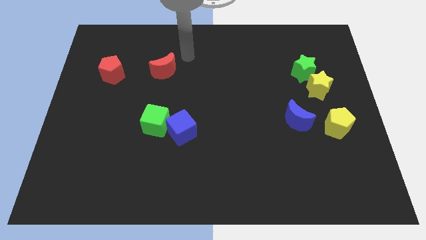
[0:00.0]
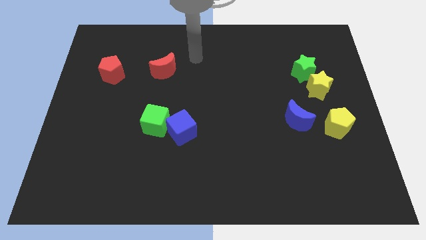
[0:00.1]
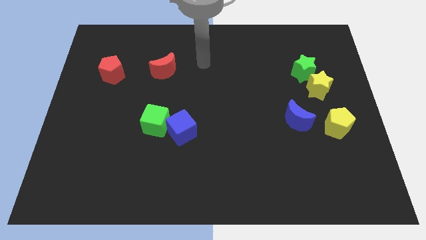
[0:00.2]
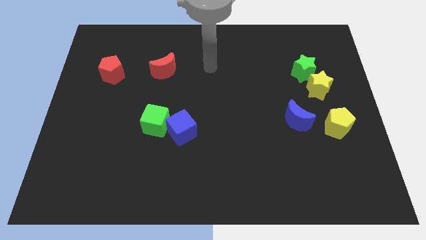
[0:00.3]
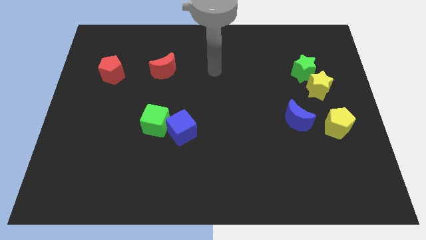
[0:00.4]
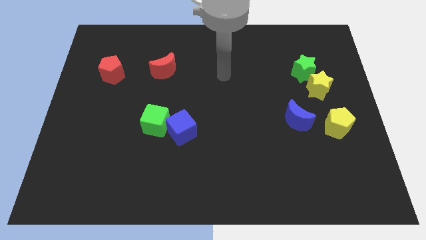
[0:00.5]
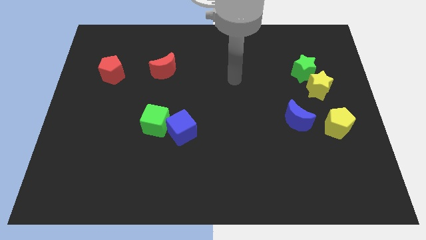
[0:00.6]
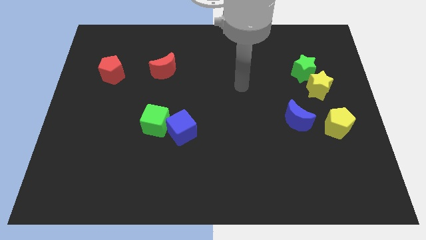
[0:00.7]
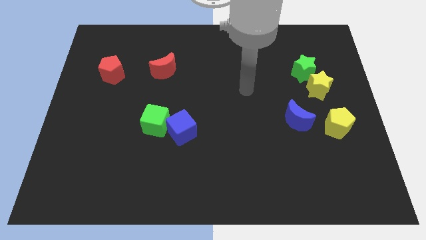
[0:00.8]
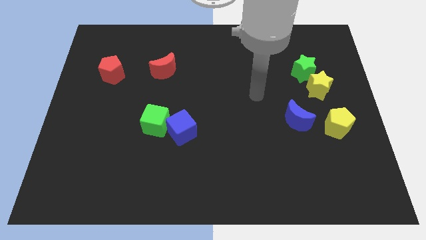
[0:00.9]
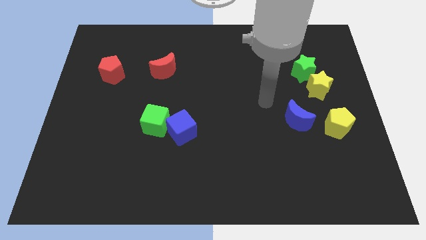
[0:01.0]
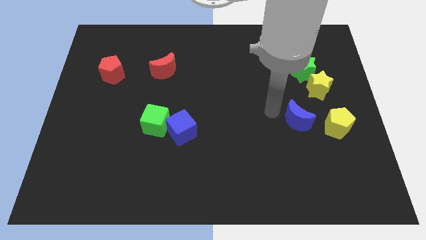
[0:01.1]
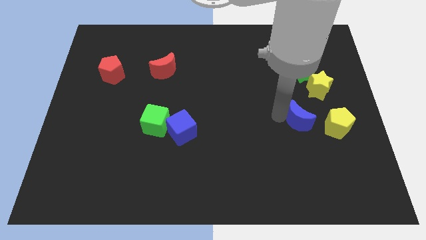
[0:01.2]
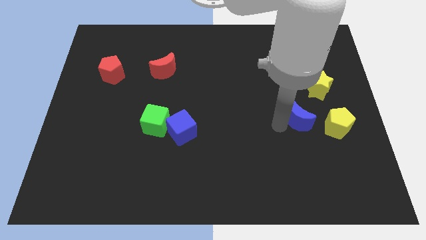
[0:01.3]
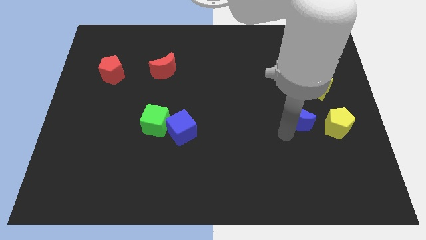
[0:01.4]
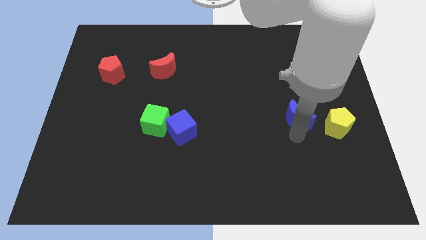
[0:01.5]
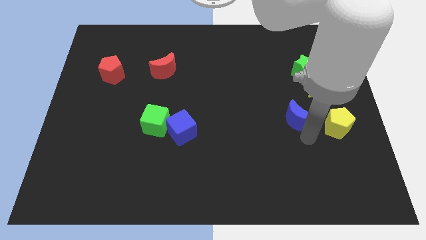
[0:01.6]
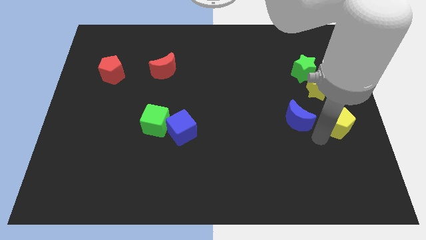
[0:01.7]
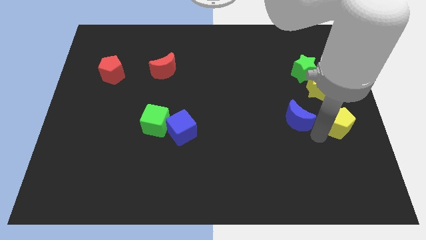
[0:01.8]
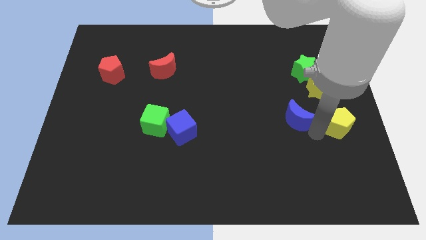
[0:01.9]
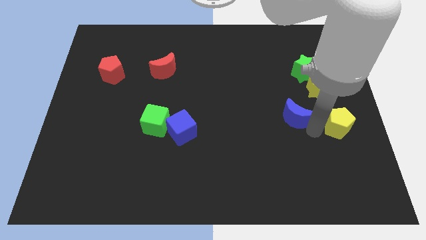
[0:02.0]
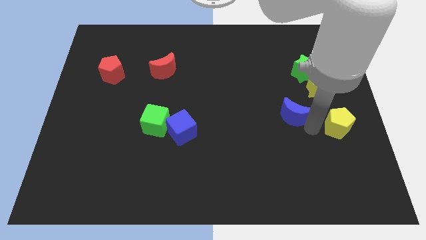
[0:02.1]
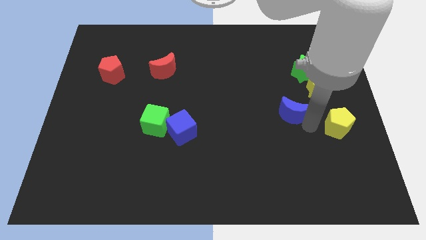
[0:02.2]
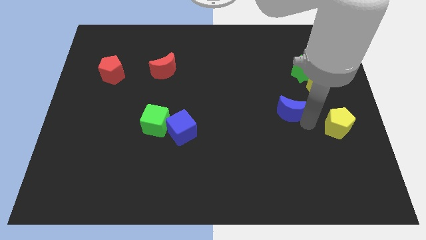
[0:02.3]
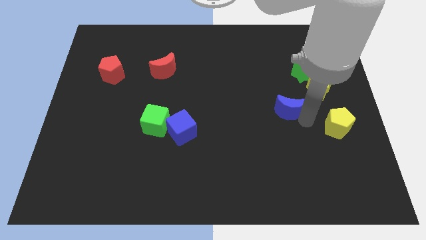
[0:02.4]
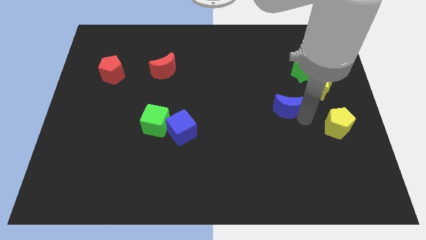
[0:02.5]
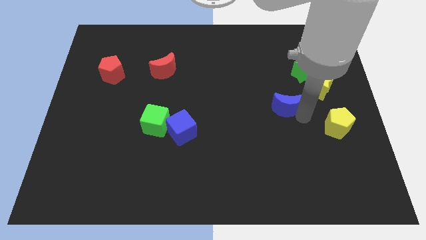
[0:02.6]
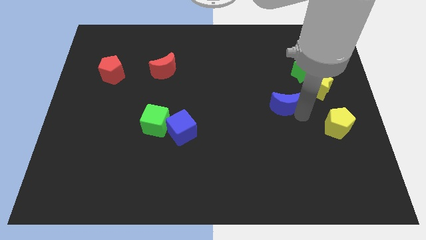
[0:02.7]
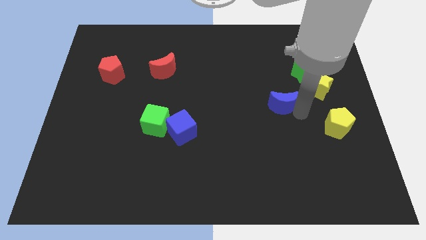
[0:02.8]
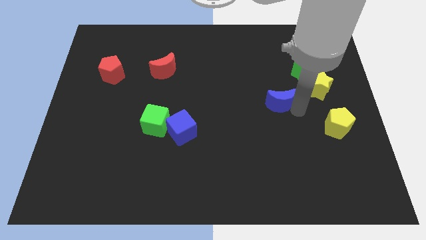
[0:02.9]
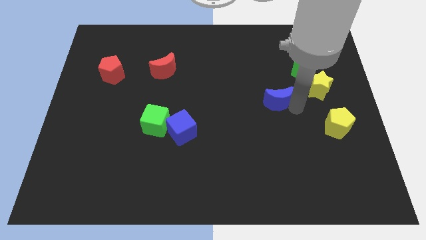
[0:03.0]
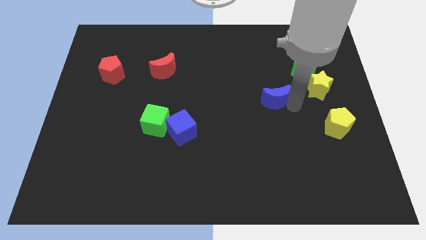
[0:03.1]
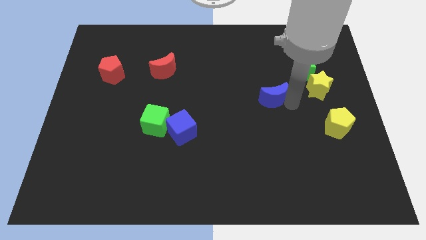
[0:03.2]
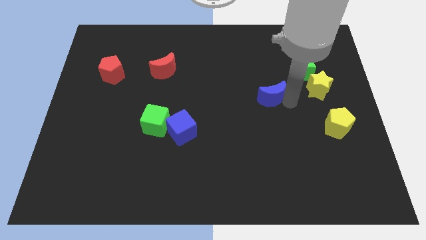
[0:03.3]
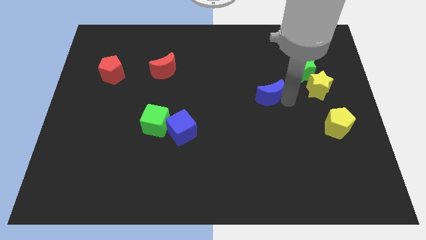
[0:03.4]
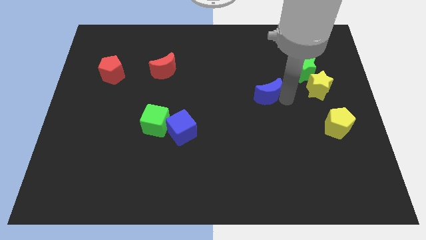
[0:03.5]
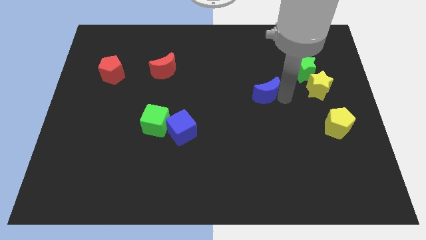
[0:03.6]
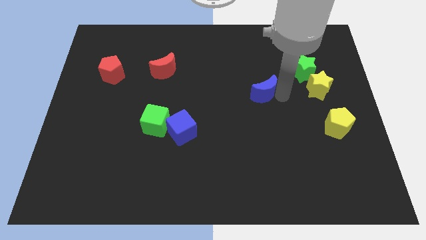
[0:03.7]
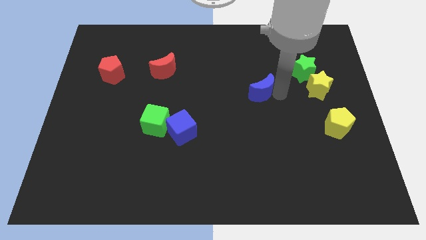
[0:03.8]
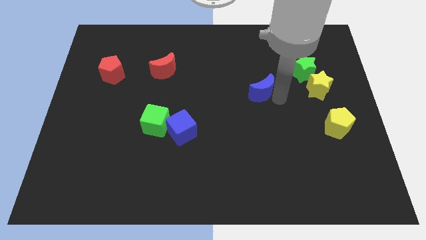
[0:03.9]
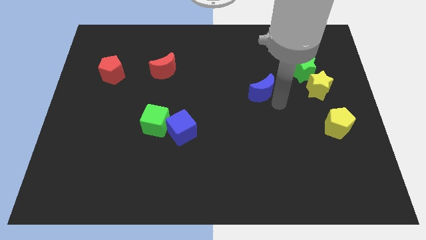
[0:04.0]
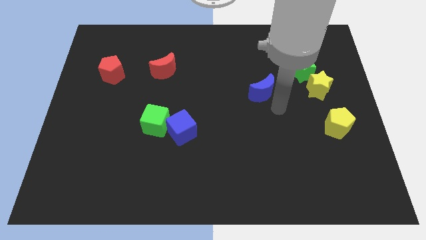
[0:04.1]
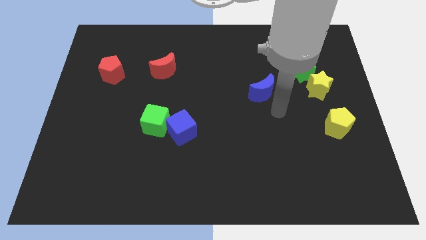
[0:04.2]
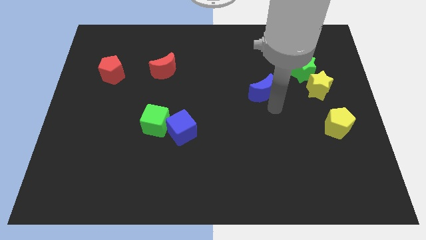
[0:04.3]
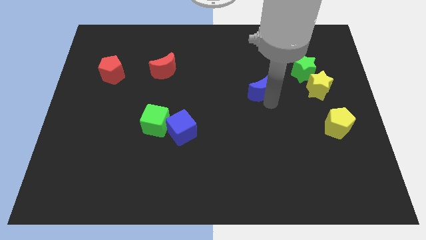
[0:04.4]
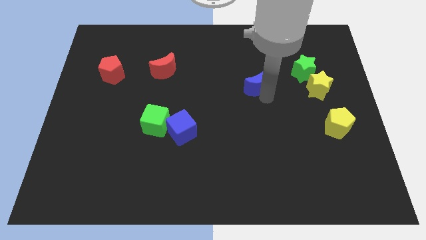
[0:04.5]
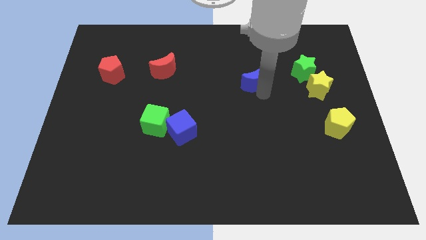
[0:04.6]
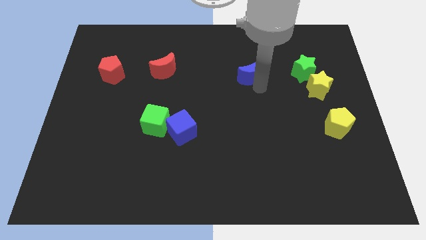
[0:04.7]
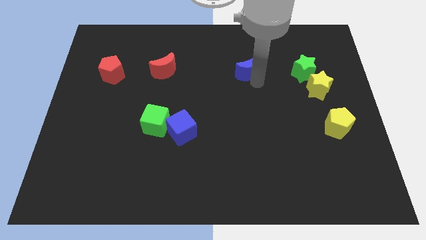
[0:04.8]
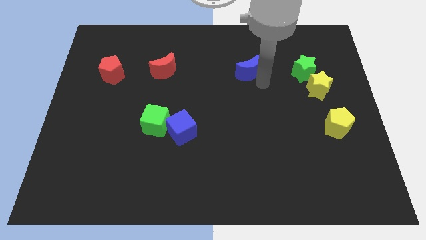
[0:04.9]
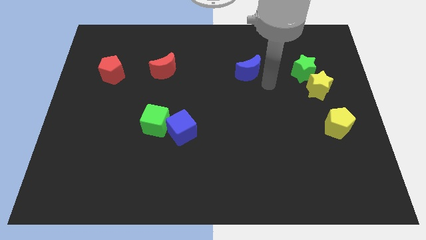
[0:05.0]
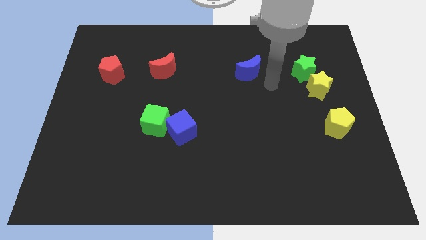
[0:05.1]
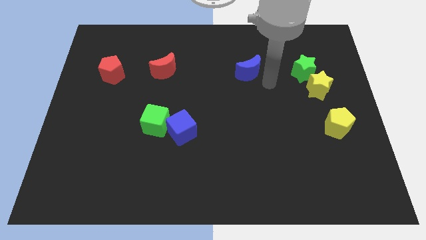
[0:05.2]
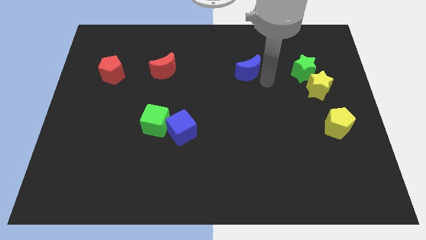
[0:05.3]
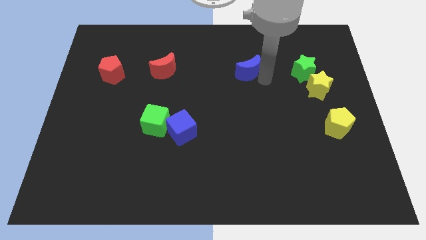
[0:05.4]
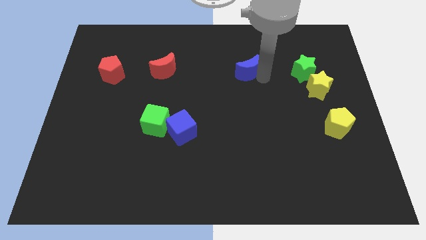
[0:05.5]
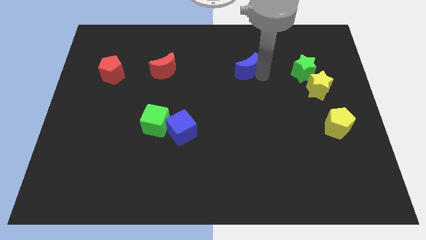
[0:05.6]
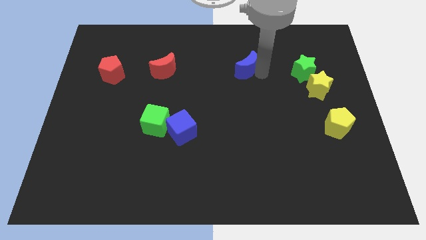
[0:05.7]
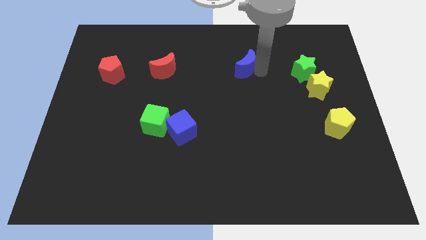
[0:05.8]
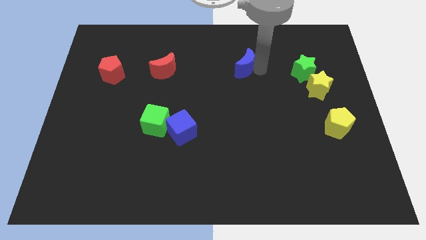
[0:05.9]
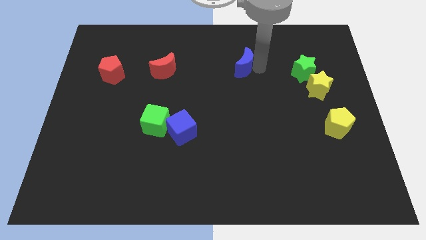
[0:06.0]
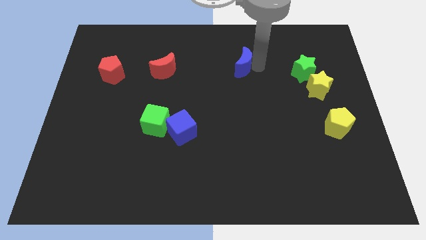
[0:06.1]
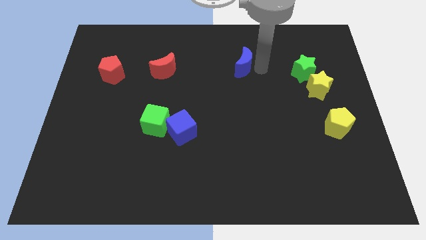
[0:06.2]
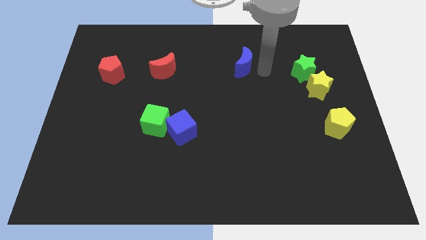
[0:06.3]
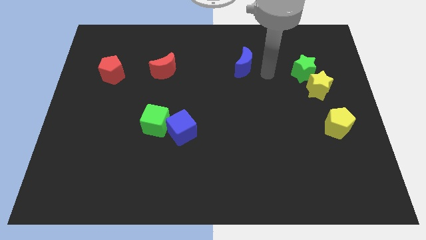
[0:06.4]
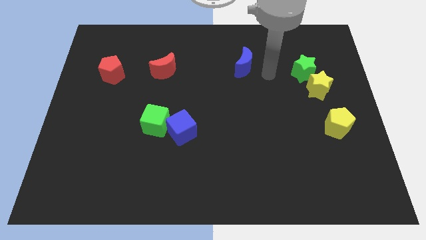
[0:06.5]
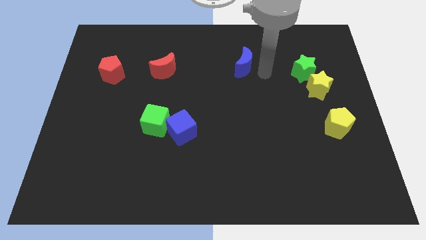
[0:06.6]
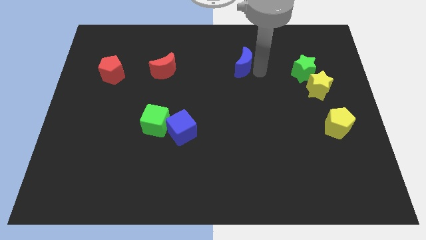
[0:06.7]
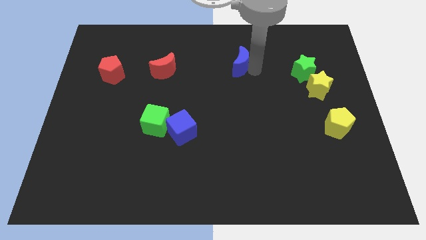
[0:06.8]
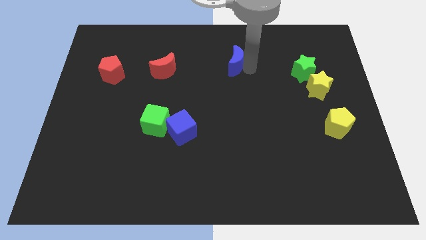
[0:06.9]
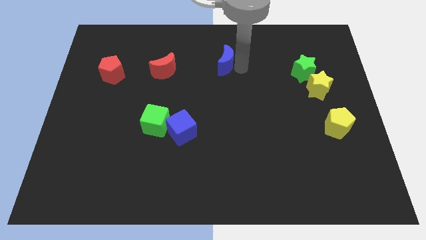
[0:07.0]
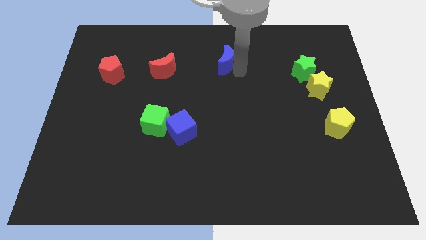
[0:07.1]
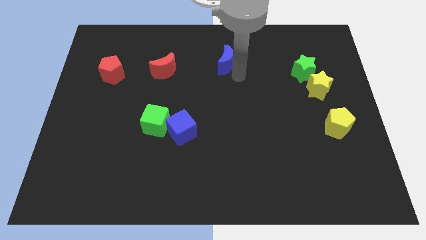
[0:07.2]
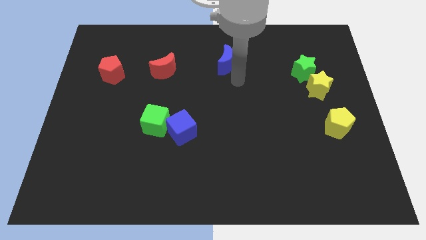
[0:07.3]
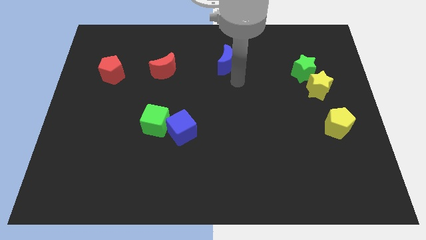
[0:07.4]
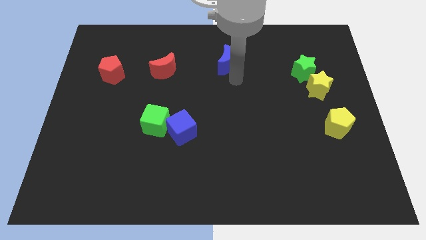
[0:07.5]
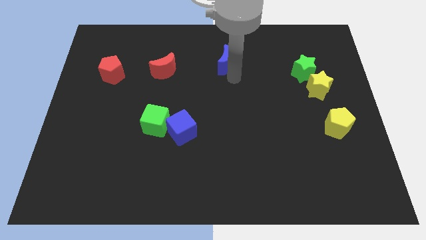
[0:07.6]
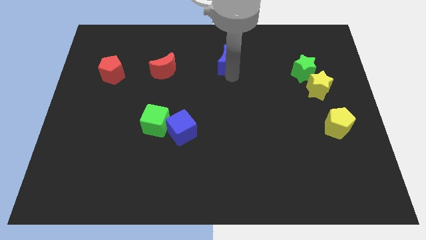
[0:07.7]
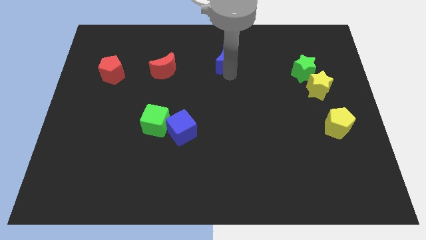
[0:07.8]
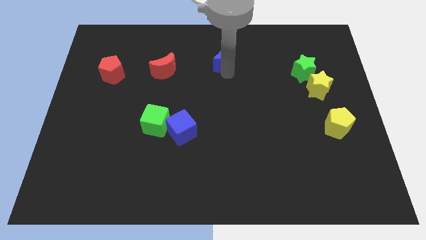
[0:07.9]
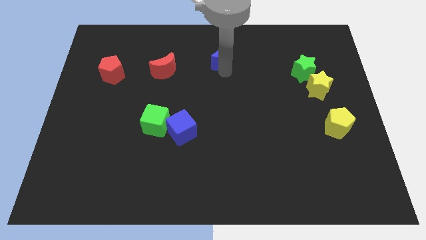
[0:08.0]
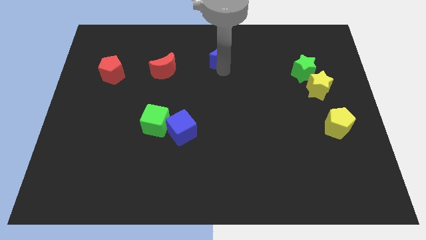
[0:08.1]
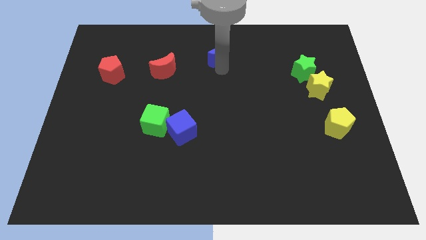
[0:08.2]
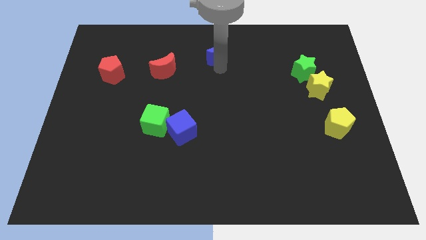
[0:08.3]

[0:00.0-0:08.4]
put the blue moon to the towards your base
